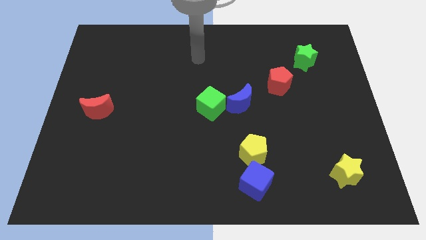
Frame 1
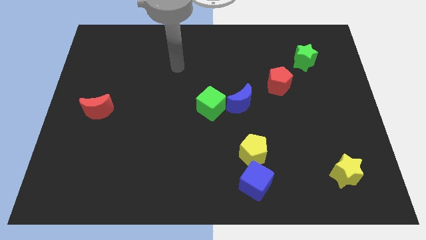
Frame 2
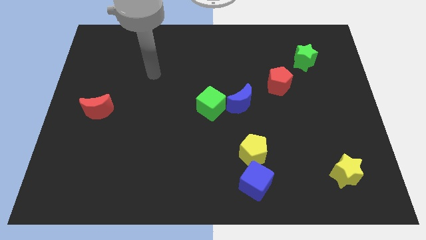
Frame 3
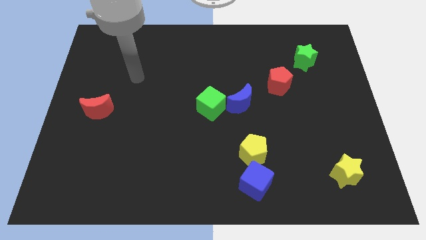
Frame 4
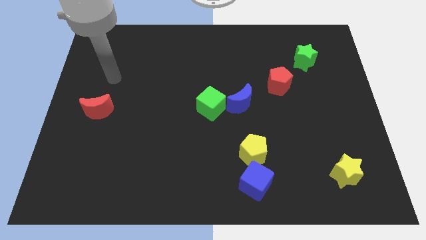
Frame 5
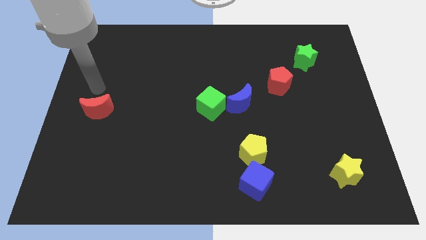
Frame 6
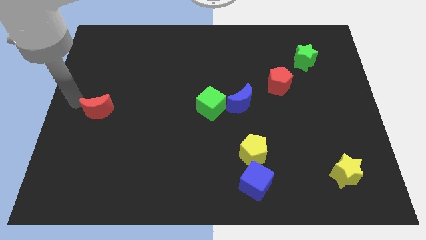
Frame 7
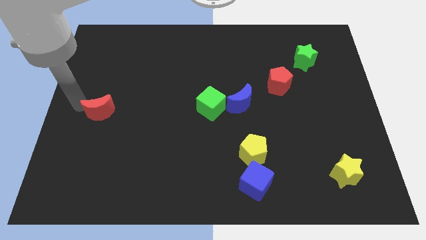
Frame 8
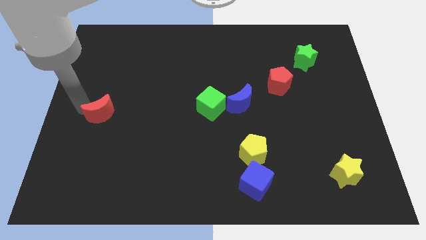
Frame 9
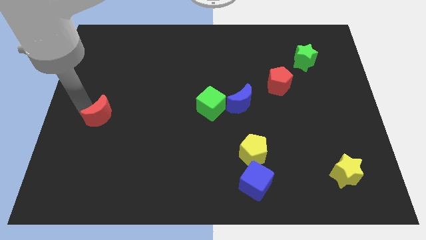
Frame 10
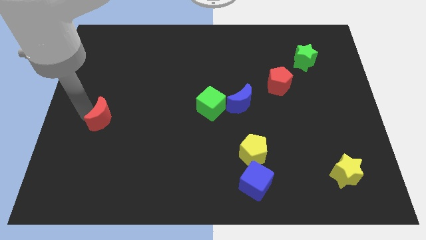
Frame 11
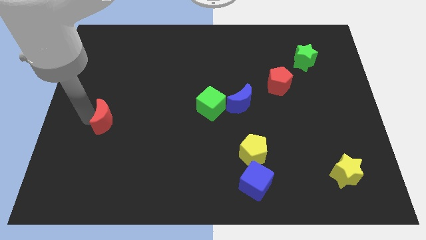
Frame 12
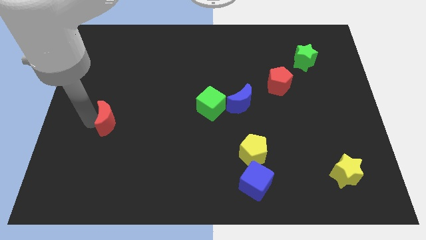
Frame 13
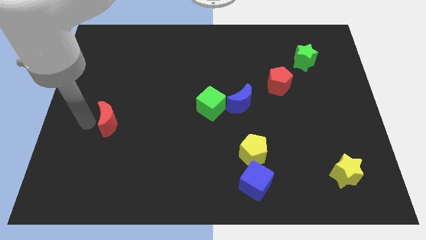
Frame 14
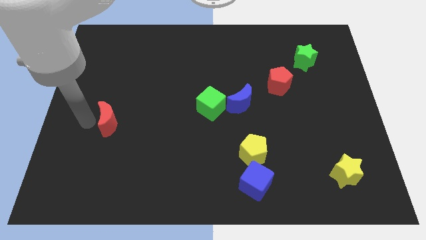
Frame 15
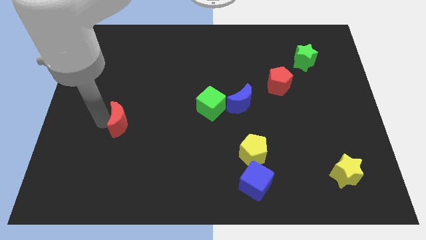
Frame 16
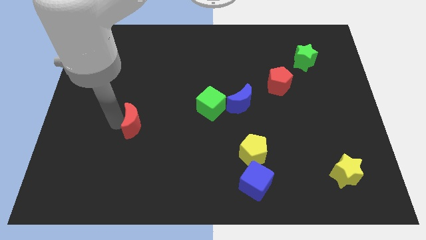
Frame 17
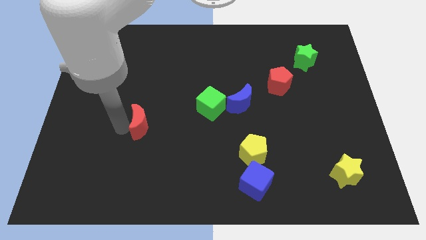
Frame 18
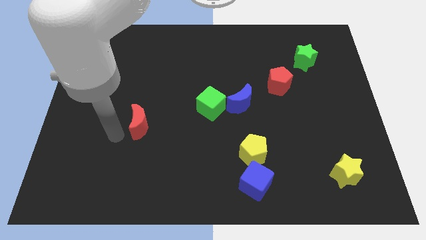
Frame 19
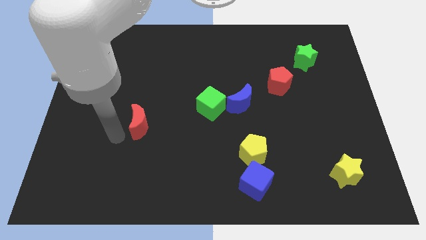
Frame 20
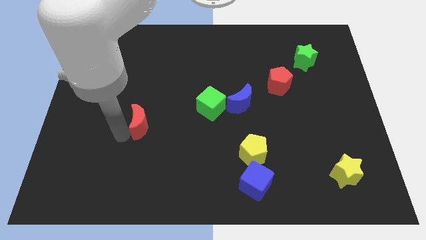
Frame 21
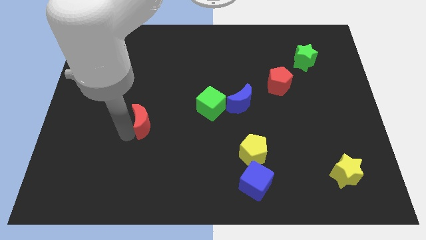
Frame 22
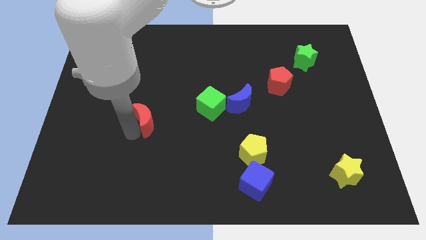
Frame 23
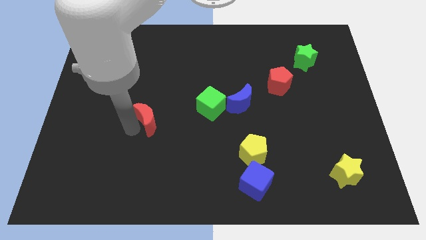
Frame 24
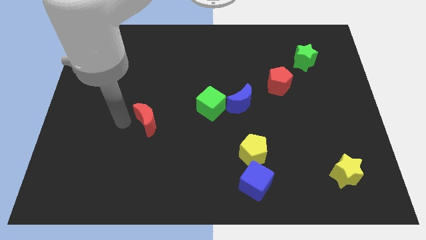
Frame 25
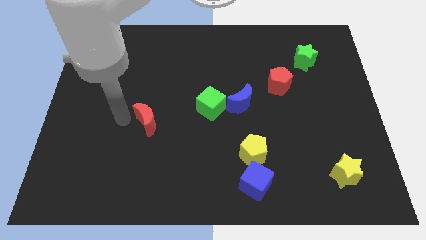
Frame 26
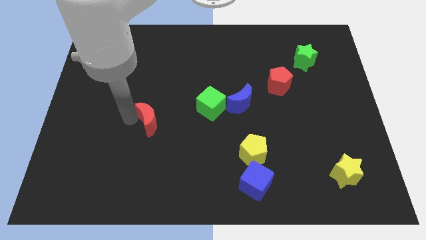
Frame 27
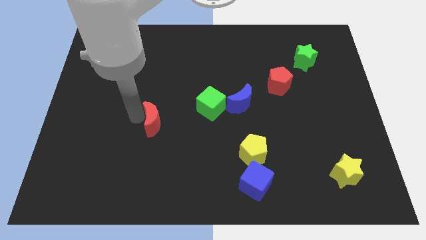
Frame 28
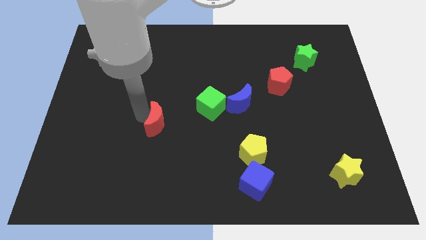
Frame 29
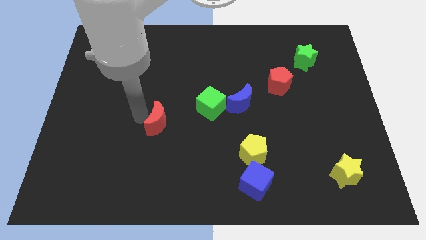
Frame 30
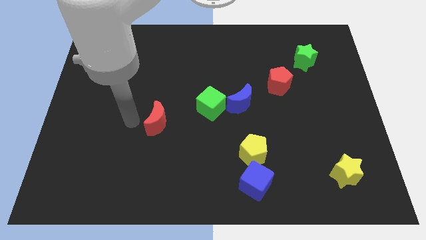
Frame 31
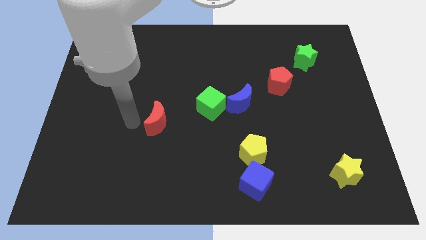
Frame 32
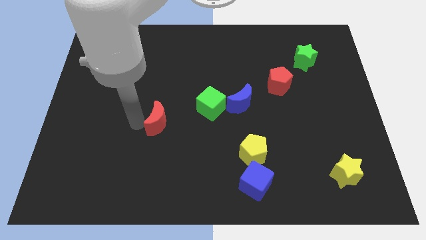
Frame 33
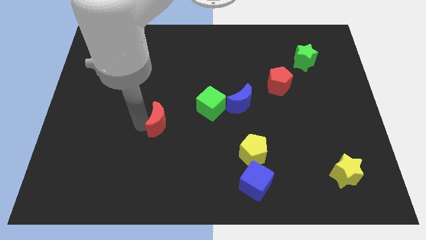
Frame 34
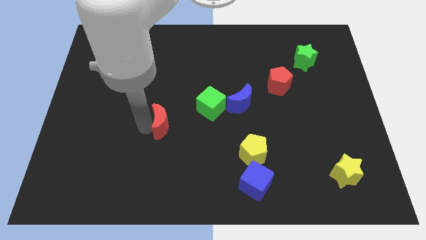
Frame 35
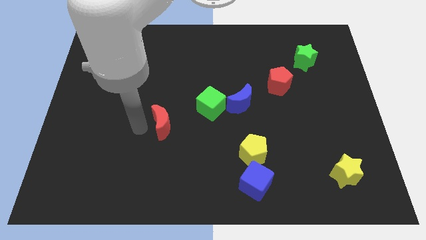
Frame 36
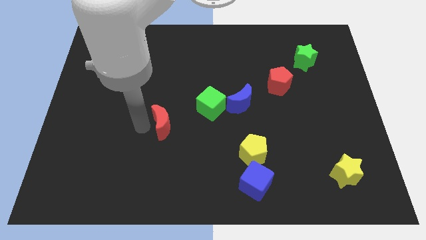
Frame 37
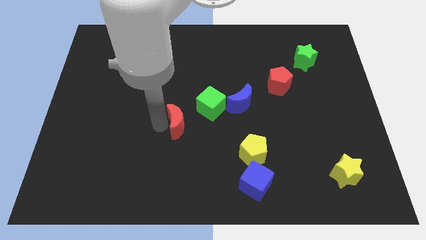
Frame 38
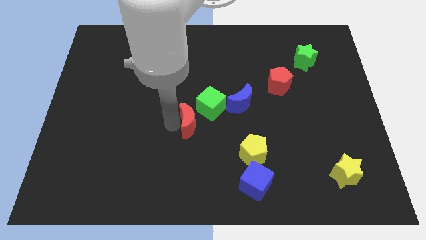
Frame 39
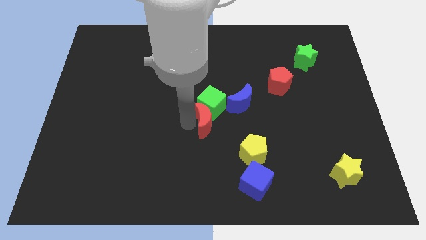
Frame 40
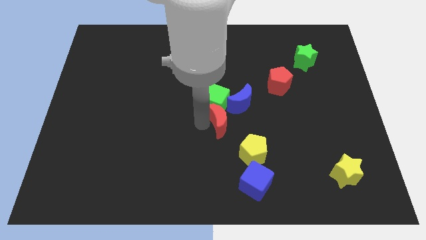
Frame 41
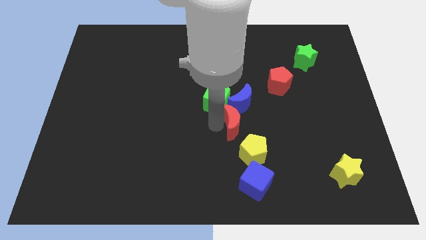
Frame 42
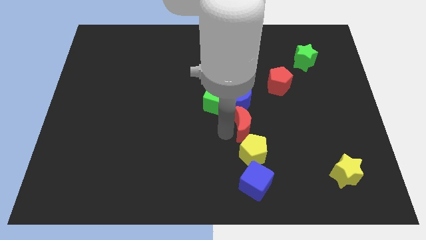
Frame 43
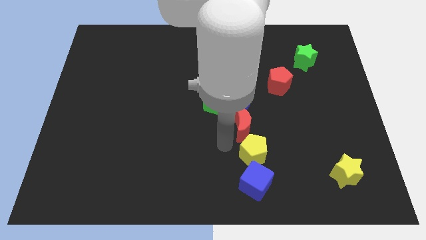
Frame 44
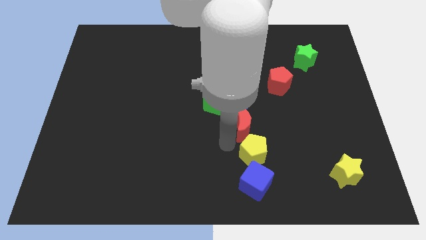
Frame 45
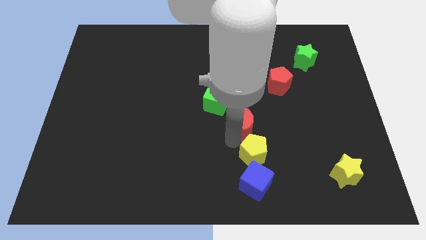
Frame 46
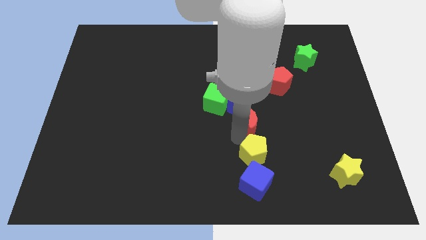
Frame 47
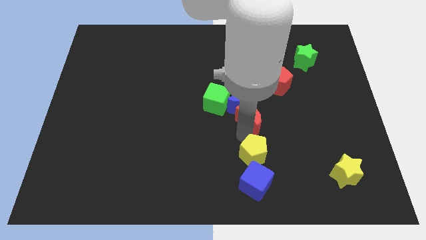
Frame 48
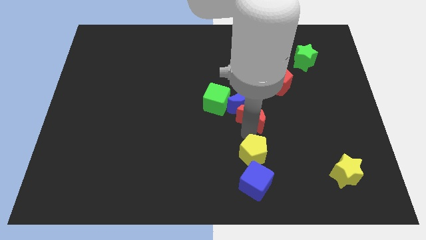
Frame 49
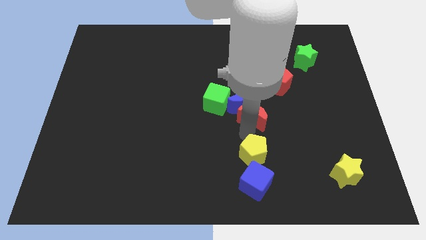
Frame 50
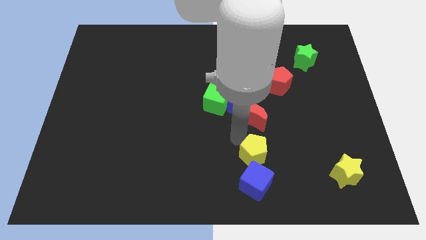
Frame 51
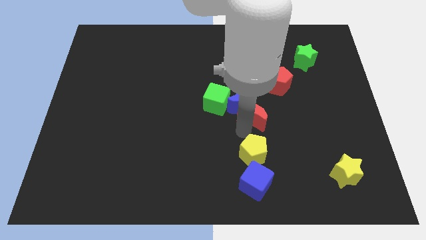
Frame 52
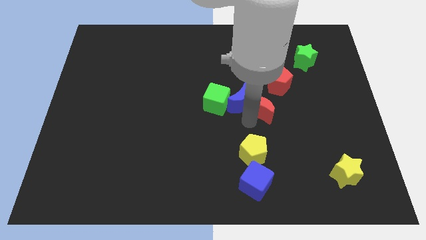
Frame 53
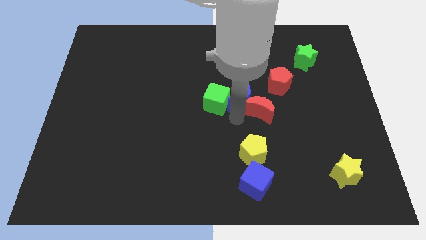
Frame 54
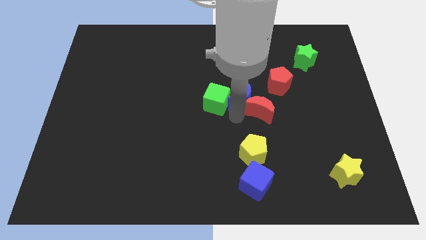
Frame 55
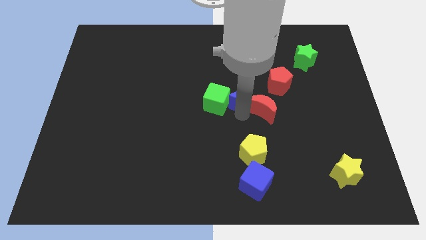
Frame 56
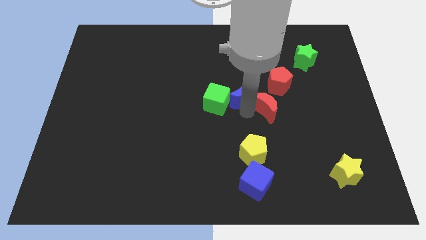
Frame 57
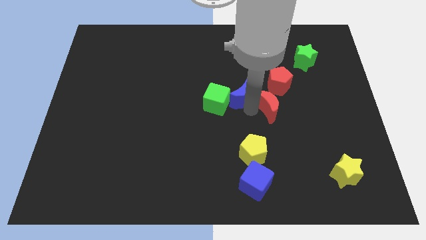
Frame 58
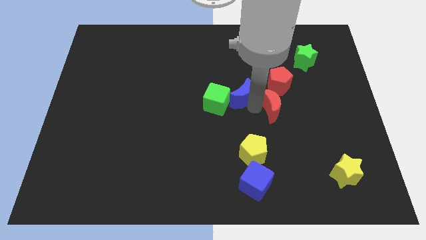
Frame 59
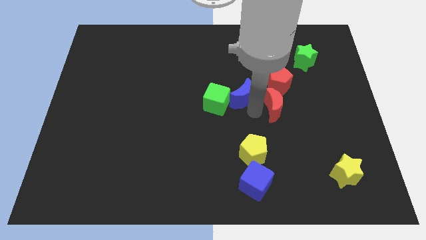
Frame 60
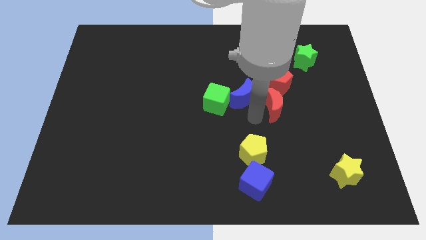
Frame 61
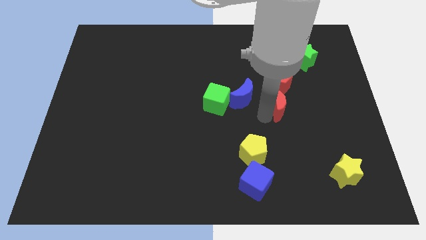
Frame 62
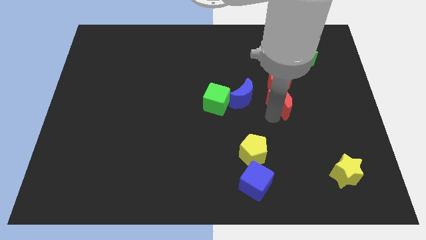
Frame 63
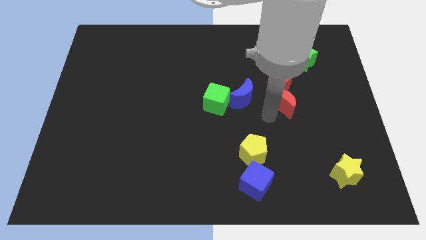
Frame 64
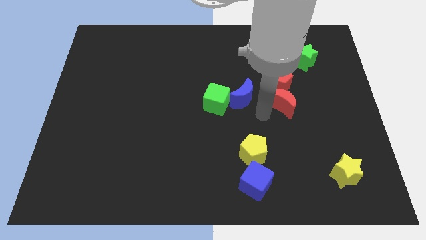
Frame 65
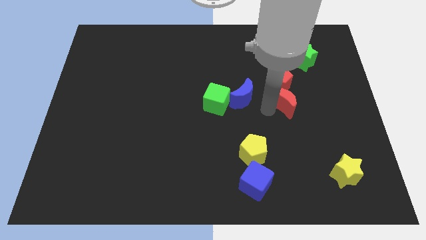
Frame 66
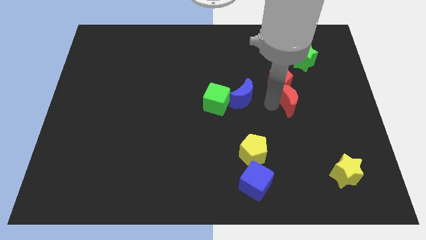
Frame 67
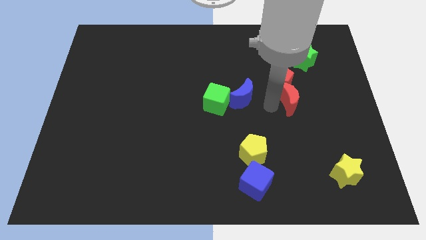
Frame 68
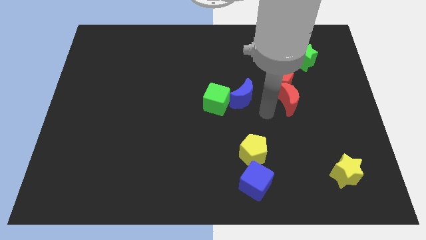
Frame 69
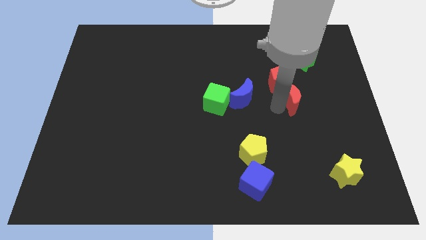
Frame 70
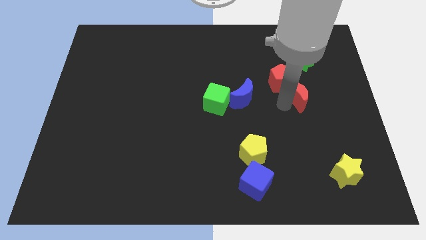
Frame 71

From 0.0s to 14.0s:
put the red moon to the bottom side of the green star

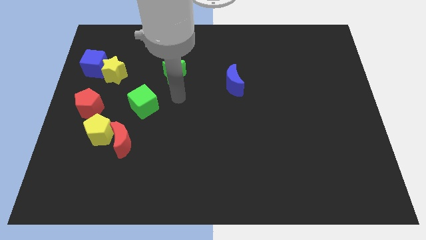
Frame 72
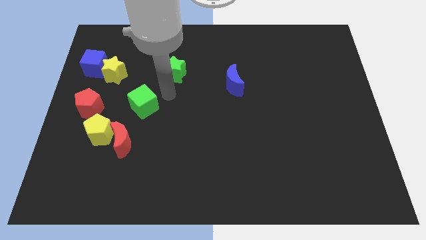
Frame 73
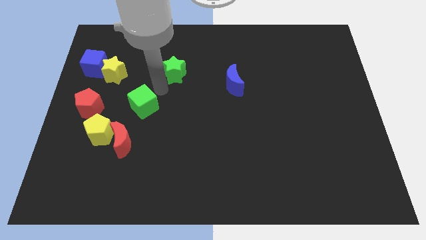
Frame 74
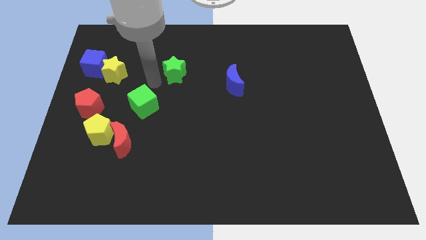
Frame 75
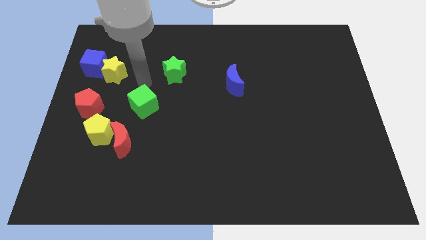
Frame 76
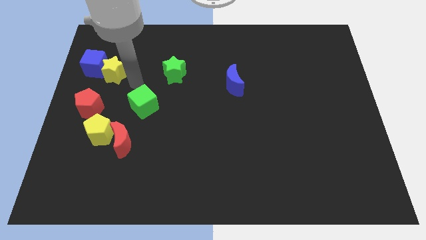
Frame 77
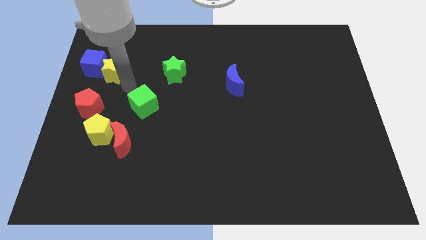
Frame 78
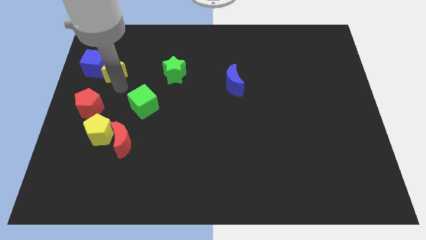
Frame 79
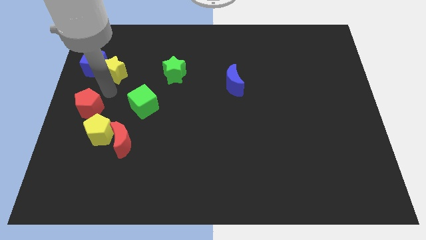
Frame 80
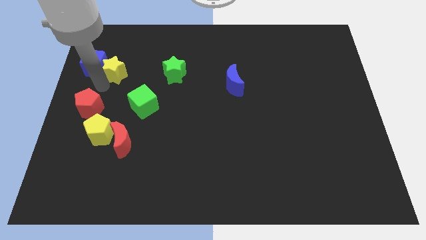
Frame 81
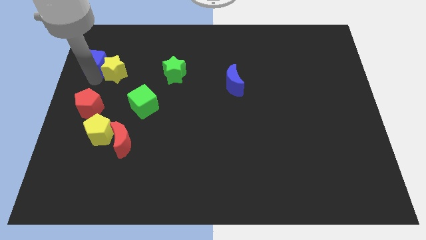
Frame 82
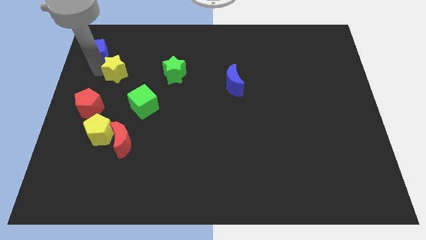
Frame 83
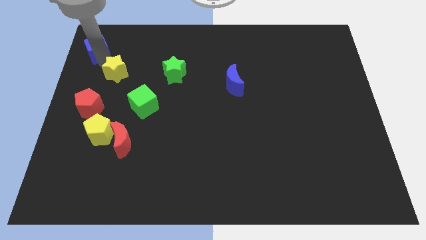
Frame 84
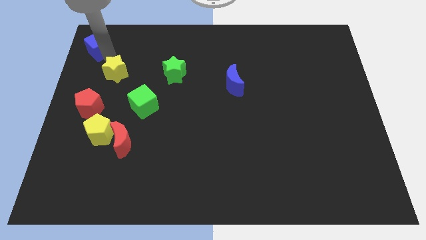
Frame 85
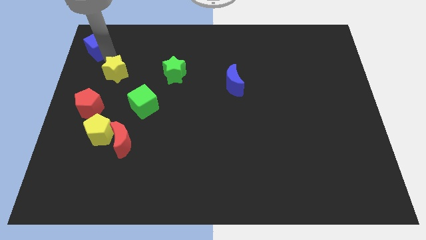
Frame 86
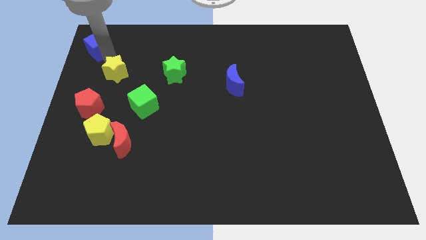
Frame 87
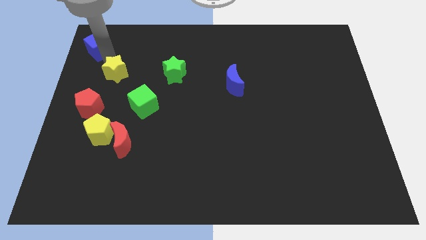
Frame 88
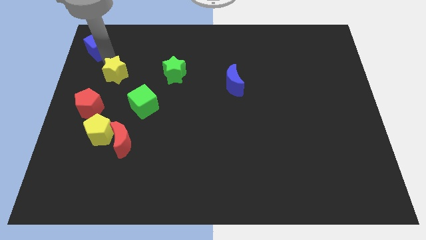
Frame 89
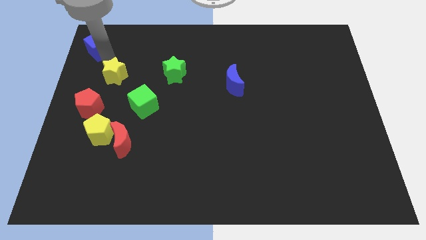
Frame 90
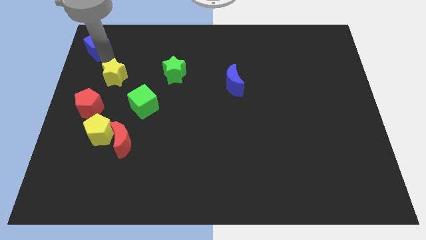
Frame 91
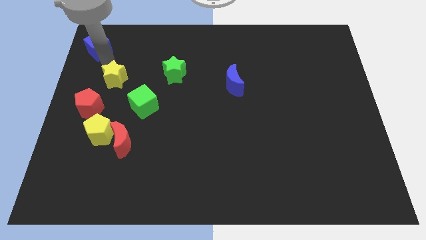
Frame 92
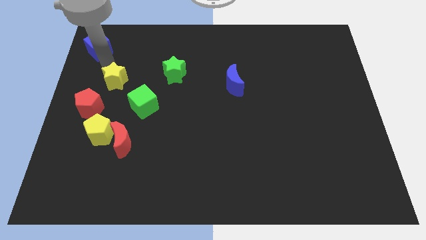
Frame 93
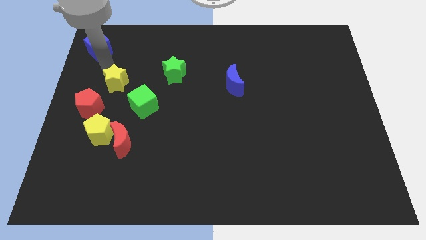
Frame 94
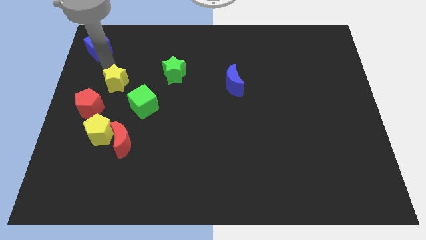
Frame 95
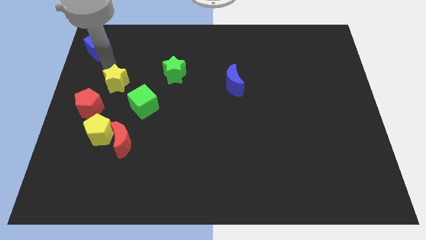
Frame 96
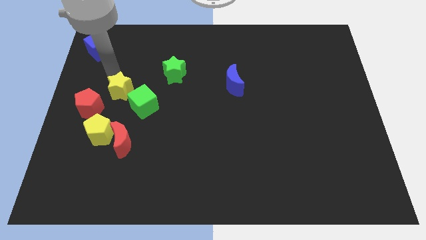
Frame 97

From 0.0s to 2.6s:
put the yellow star to the top side of the red moon
